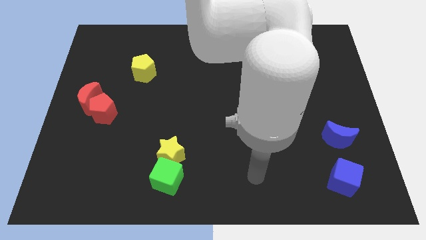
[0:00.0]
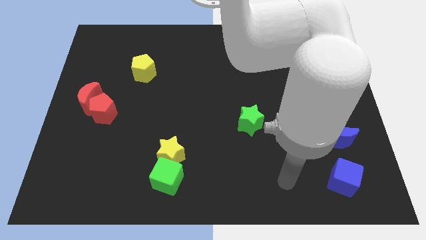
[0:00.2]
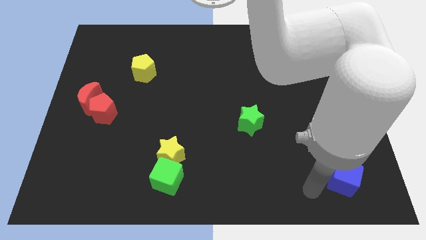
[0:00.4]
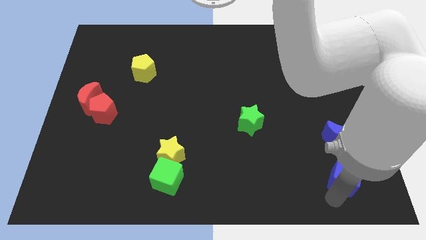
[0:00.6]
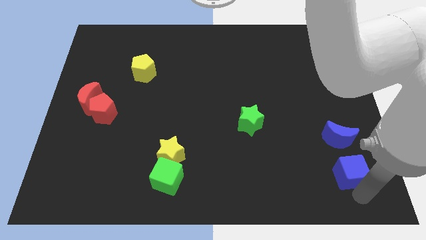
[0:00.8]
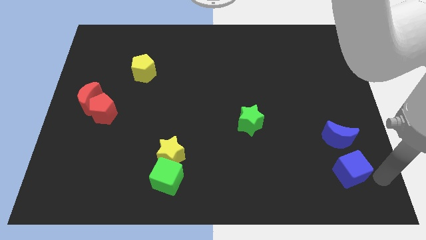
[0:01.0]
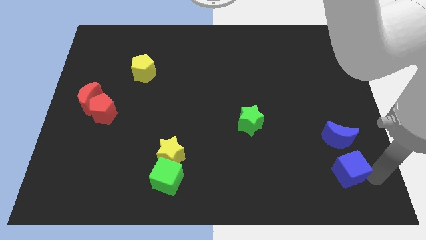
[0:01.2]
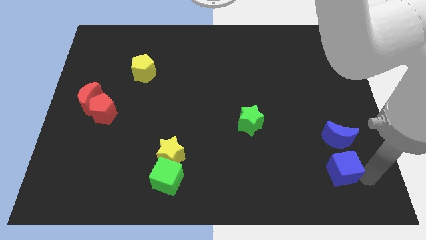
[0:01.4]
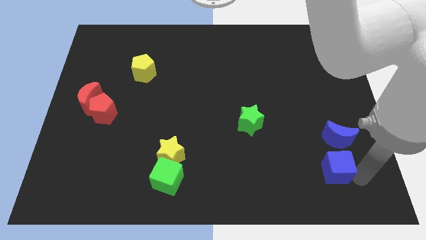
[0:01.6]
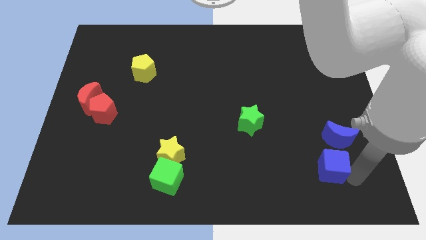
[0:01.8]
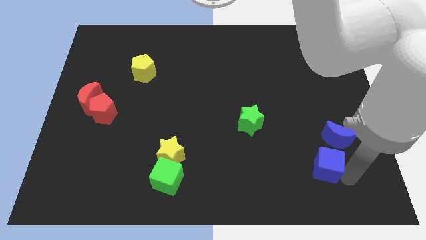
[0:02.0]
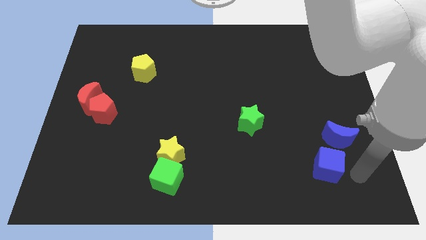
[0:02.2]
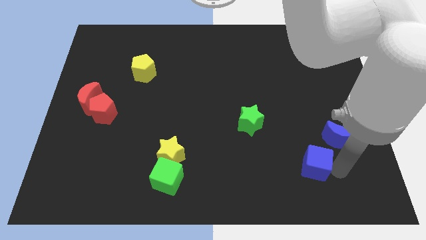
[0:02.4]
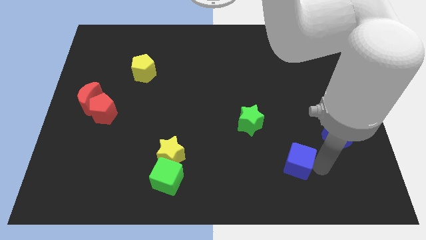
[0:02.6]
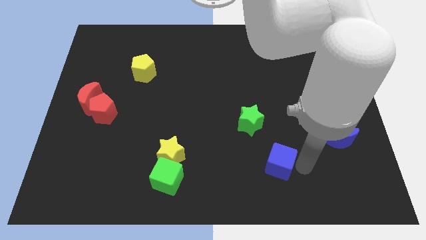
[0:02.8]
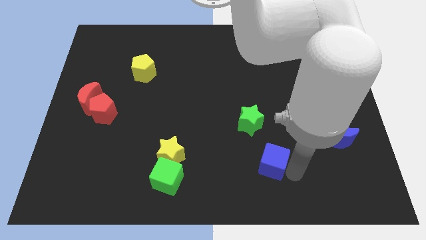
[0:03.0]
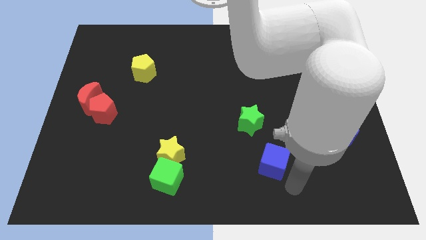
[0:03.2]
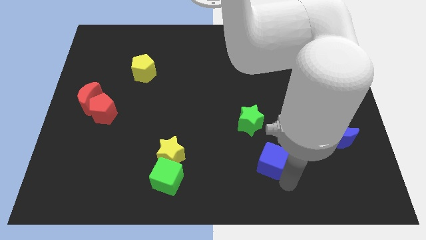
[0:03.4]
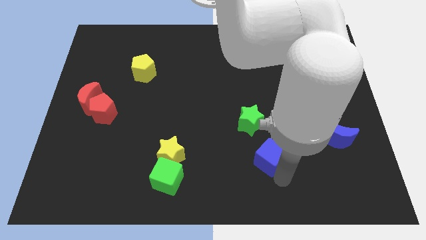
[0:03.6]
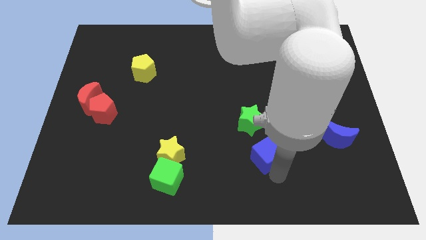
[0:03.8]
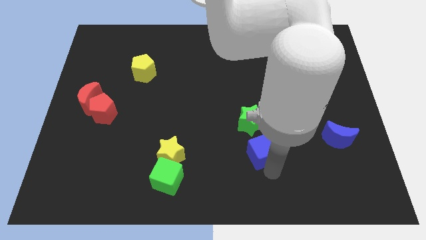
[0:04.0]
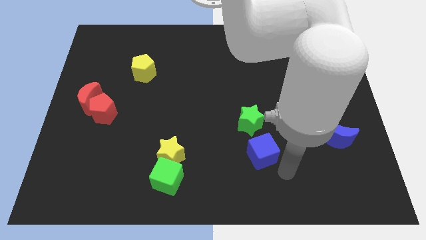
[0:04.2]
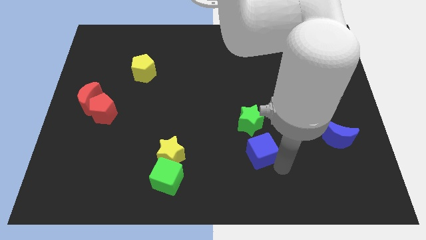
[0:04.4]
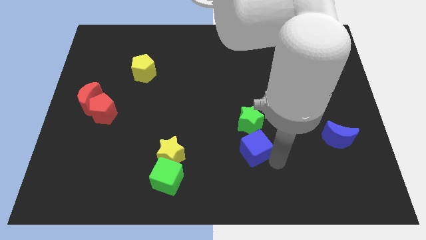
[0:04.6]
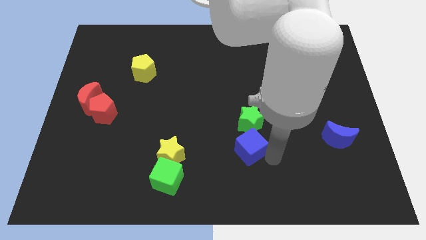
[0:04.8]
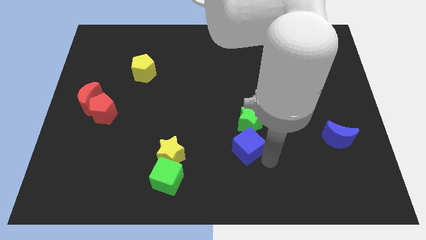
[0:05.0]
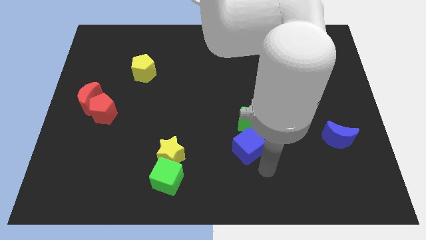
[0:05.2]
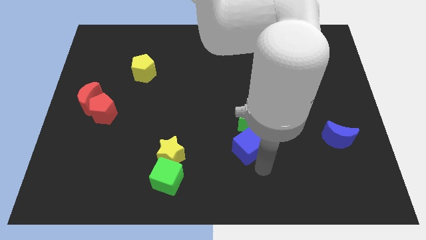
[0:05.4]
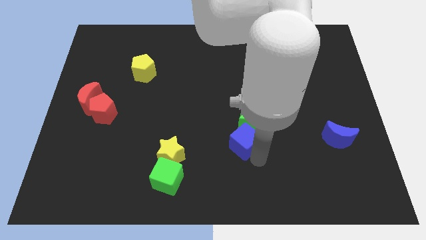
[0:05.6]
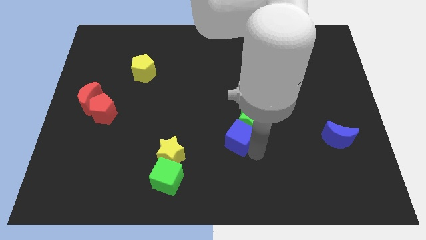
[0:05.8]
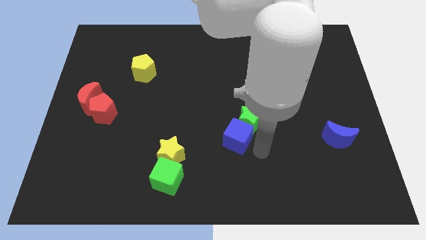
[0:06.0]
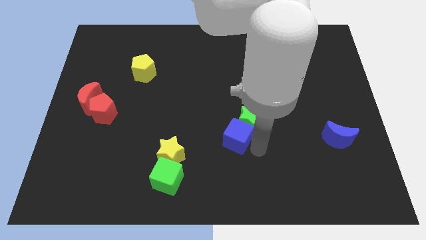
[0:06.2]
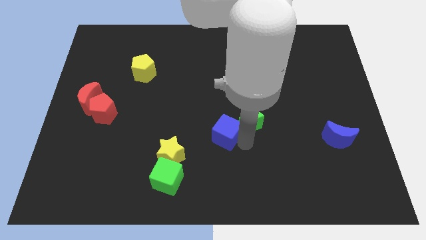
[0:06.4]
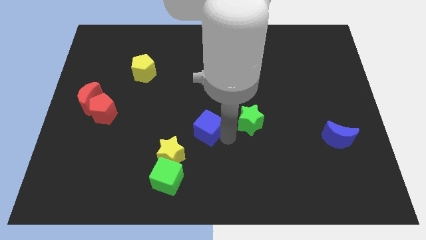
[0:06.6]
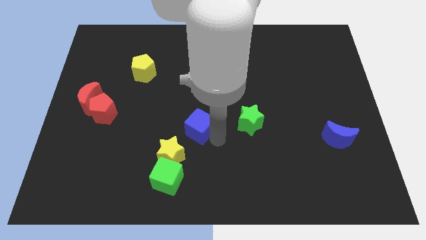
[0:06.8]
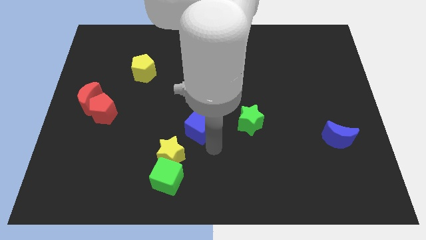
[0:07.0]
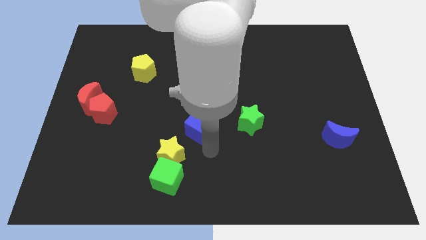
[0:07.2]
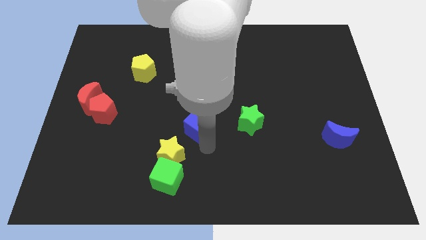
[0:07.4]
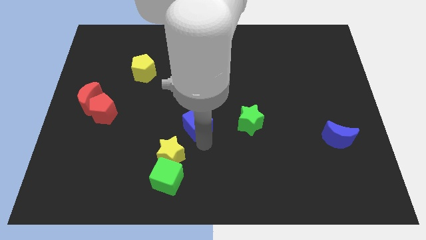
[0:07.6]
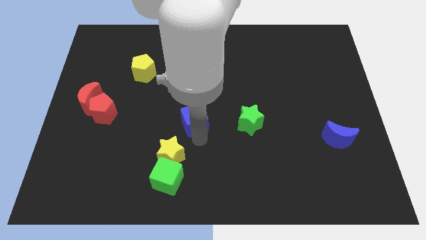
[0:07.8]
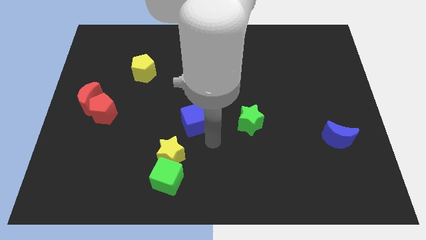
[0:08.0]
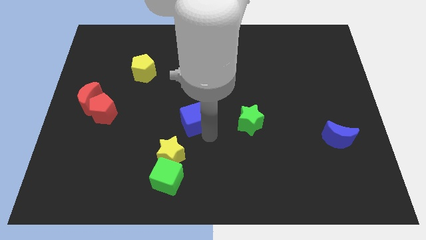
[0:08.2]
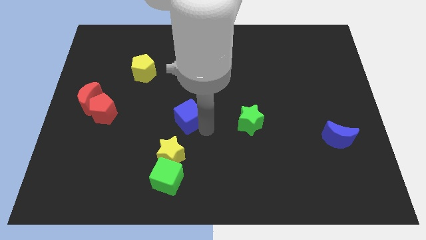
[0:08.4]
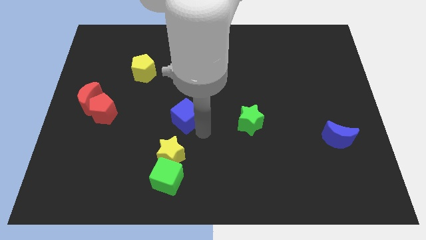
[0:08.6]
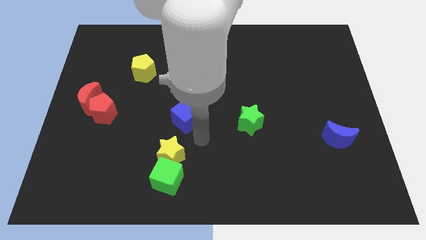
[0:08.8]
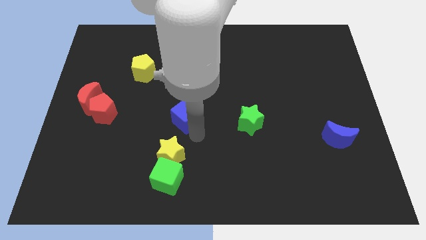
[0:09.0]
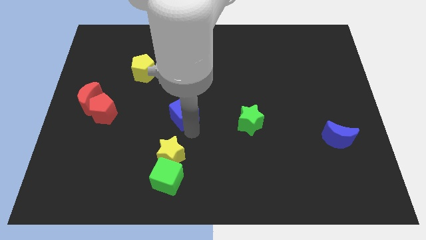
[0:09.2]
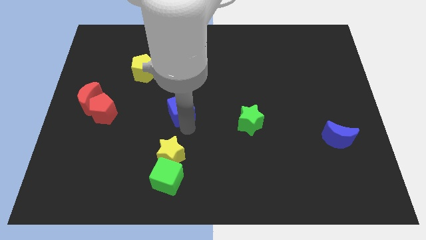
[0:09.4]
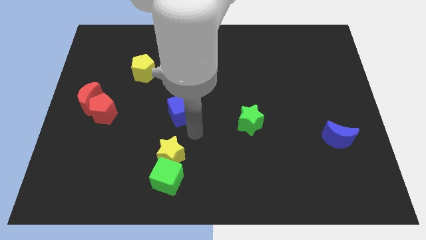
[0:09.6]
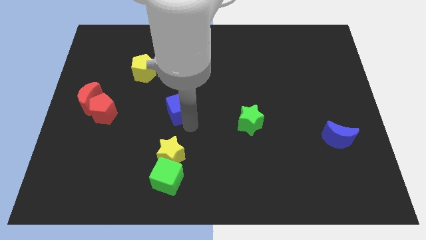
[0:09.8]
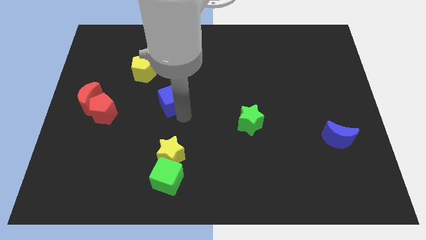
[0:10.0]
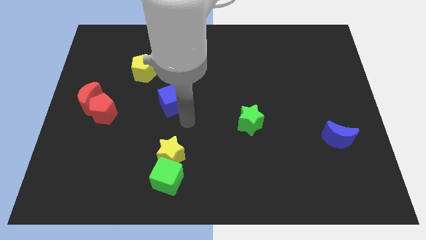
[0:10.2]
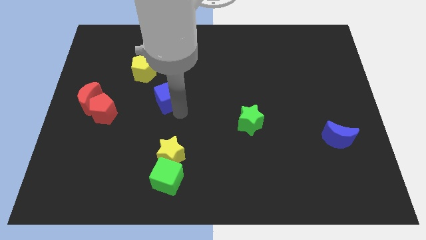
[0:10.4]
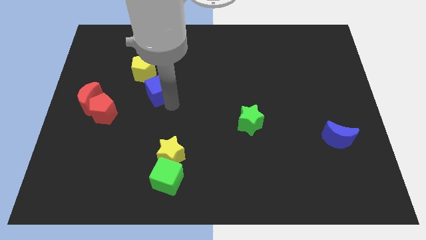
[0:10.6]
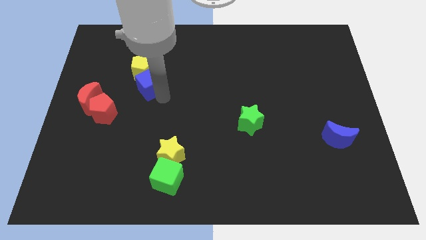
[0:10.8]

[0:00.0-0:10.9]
put the blue cube next to the yellow pentagon

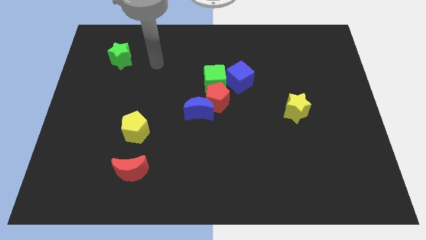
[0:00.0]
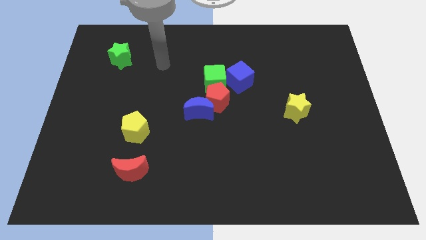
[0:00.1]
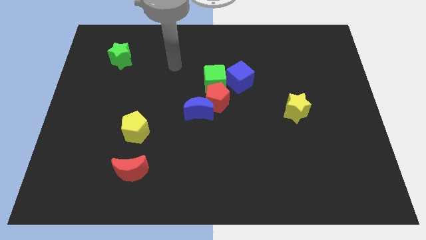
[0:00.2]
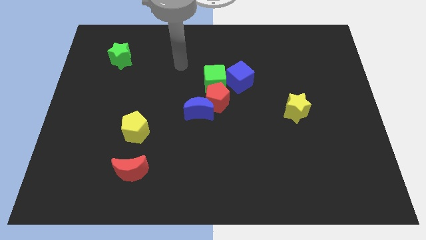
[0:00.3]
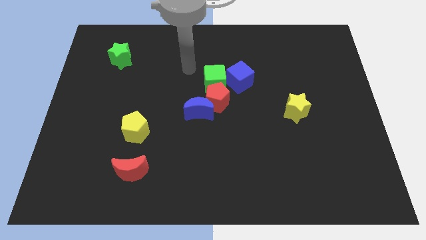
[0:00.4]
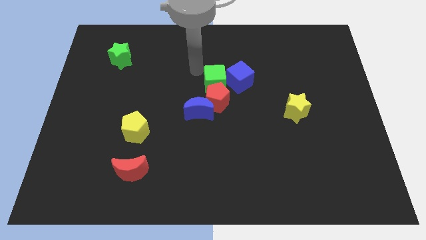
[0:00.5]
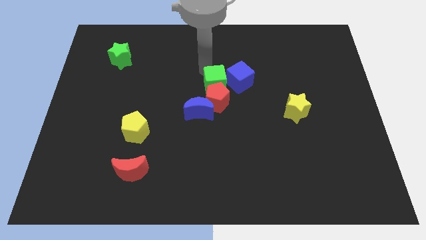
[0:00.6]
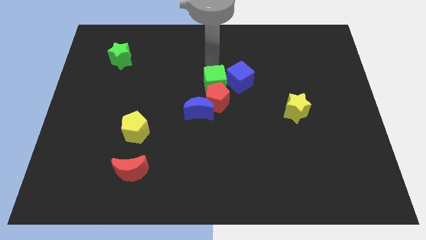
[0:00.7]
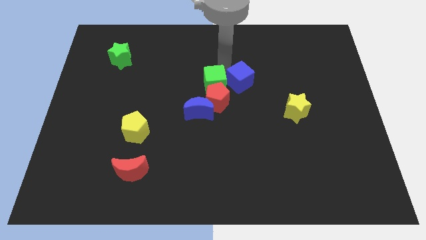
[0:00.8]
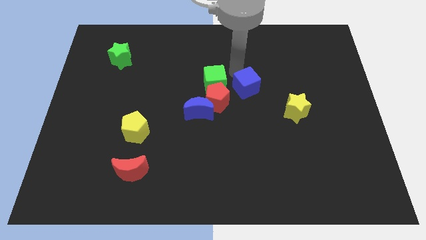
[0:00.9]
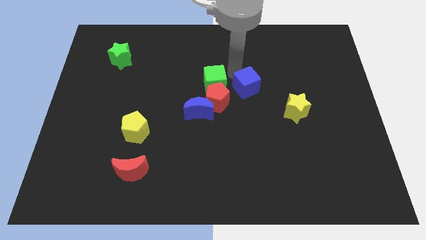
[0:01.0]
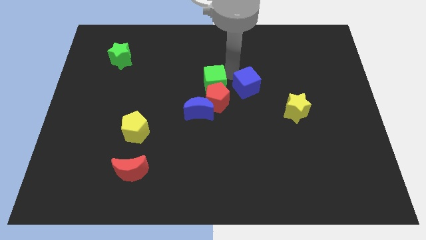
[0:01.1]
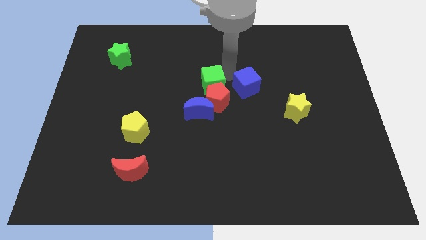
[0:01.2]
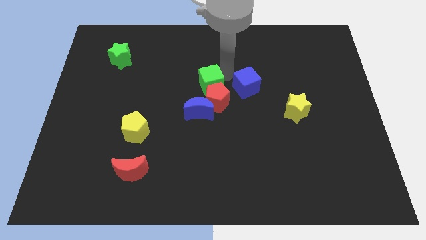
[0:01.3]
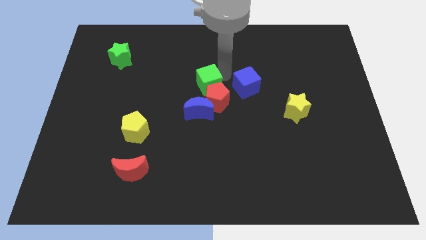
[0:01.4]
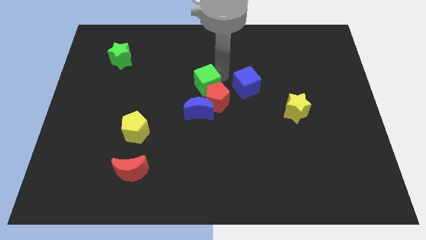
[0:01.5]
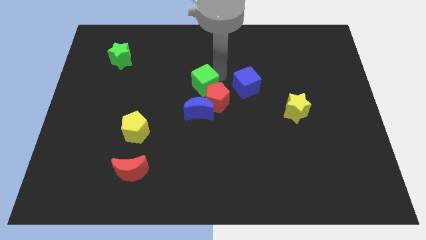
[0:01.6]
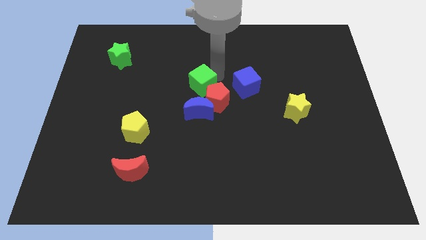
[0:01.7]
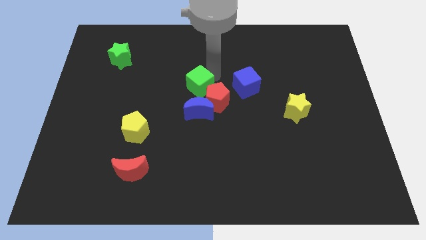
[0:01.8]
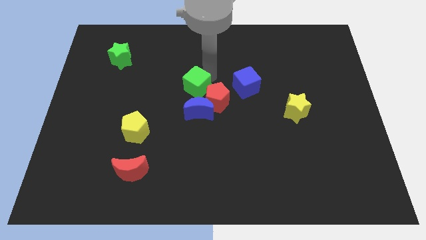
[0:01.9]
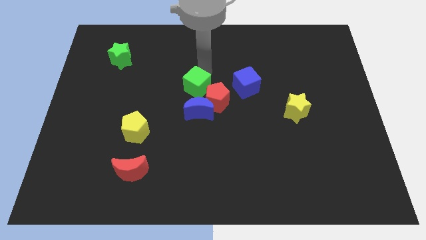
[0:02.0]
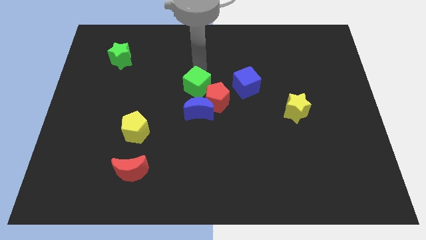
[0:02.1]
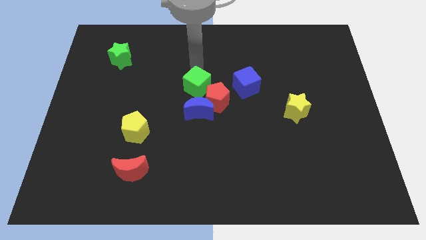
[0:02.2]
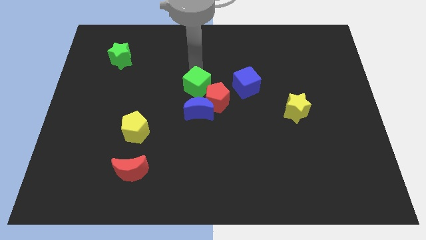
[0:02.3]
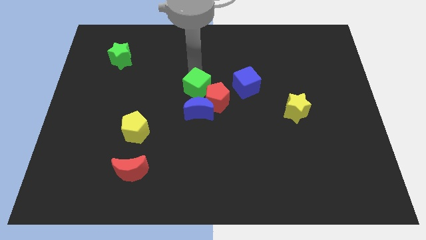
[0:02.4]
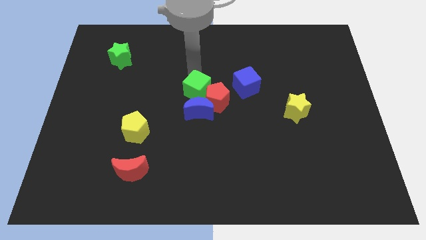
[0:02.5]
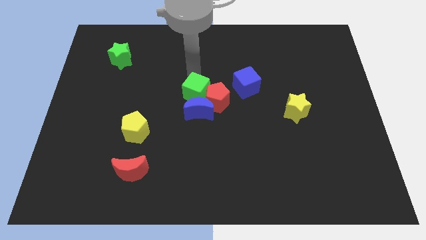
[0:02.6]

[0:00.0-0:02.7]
push the green cube next to the blue moon
